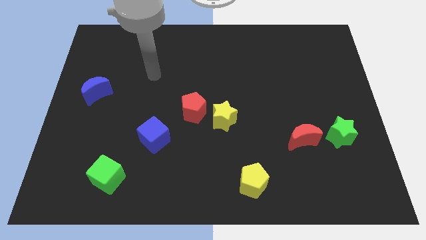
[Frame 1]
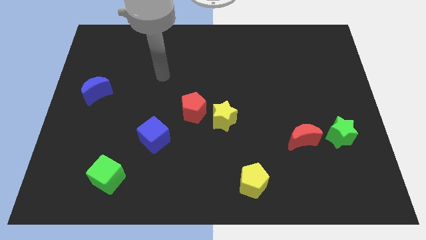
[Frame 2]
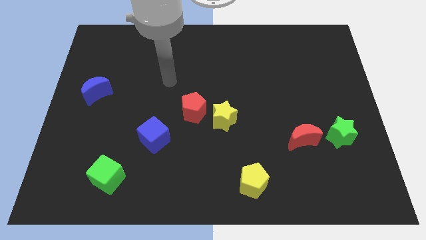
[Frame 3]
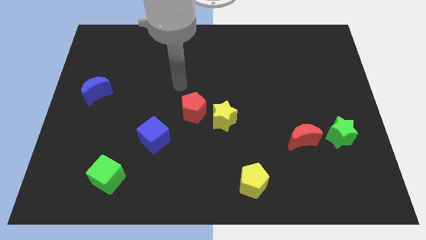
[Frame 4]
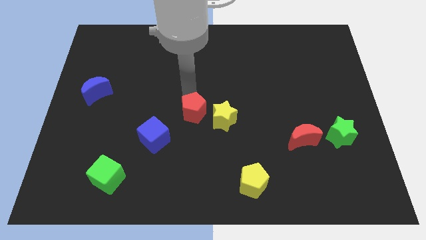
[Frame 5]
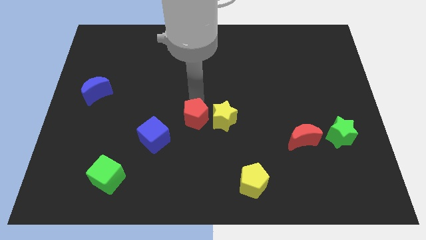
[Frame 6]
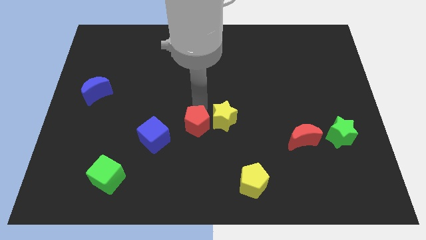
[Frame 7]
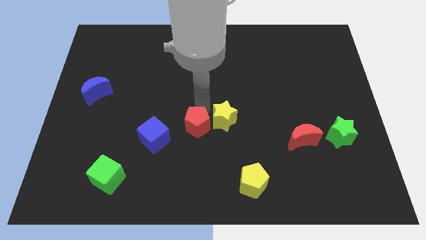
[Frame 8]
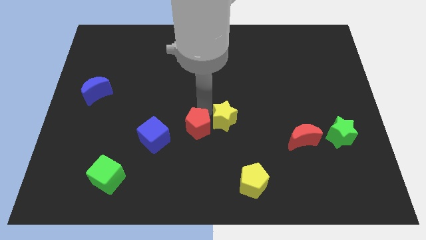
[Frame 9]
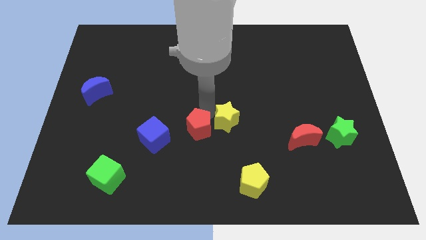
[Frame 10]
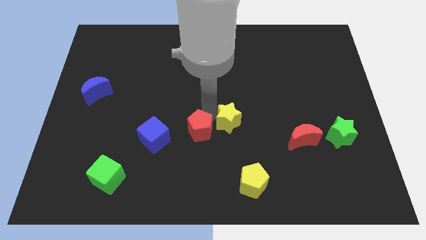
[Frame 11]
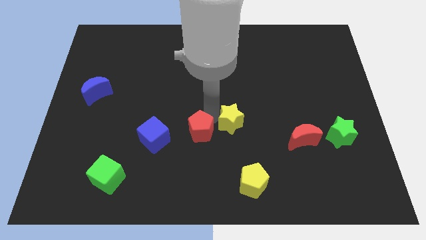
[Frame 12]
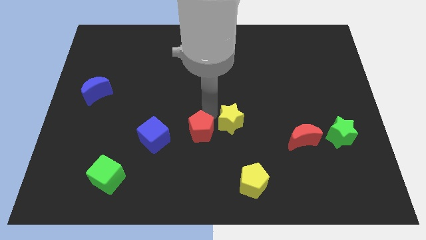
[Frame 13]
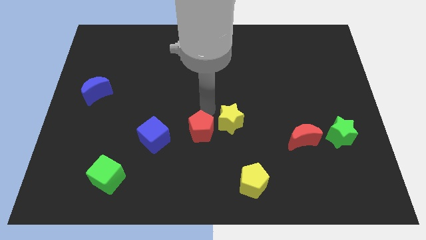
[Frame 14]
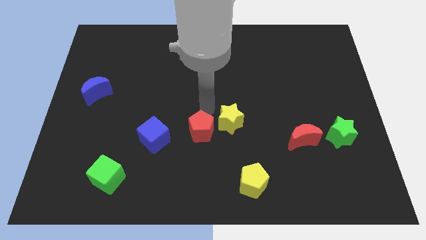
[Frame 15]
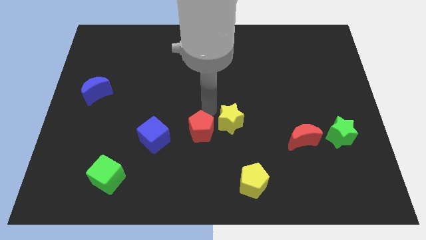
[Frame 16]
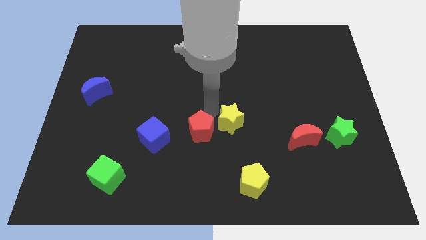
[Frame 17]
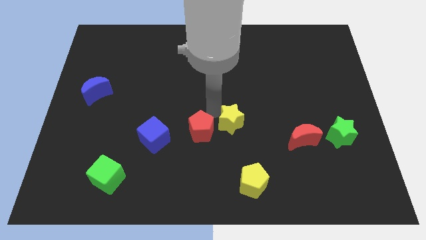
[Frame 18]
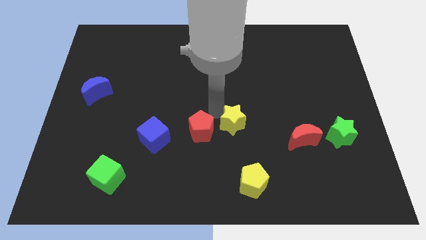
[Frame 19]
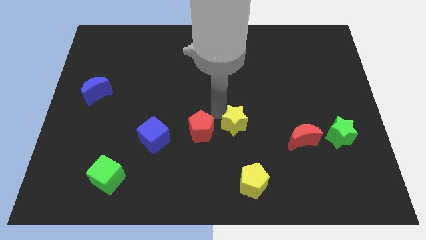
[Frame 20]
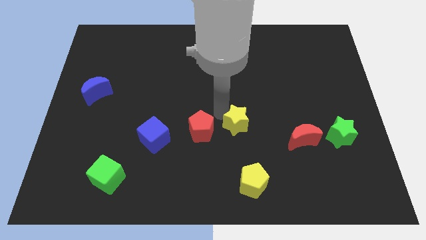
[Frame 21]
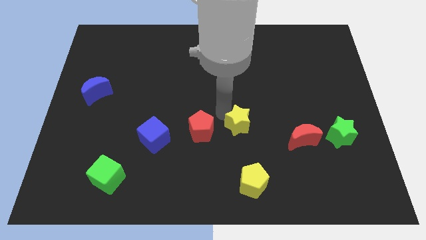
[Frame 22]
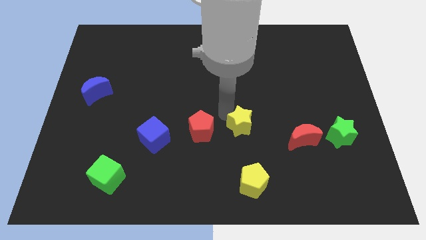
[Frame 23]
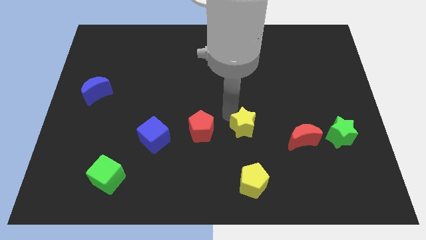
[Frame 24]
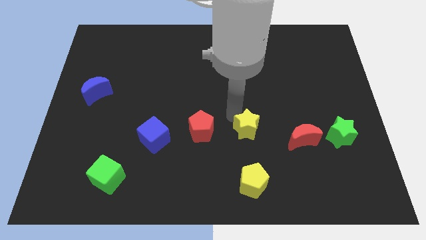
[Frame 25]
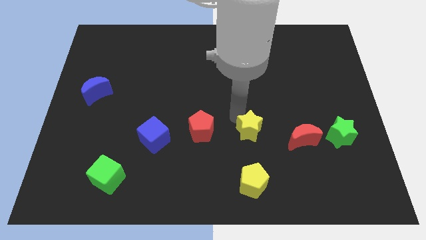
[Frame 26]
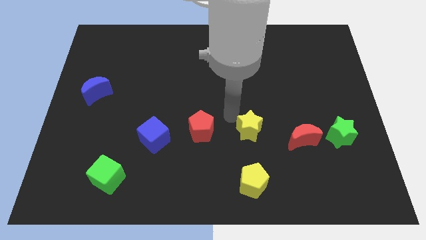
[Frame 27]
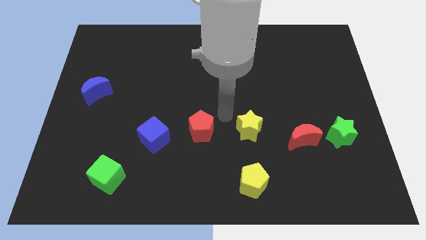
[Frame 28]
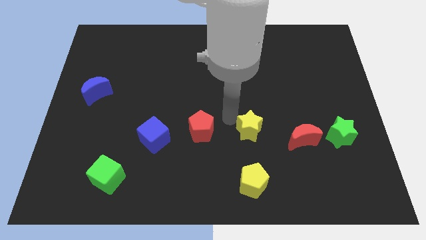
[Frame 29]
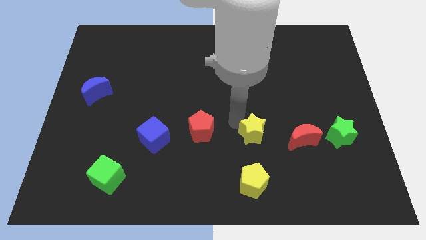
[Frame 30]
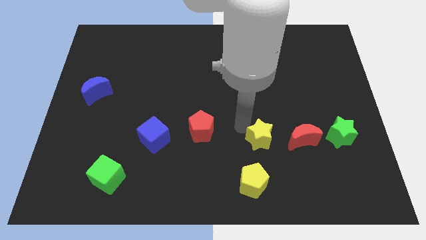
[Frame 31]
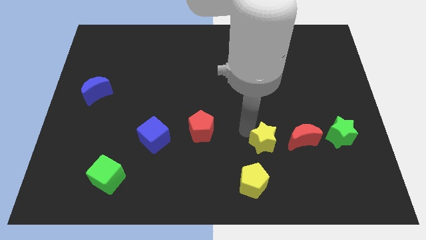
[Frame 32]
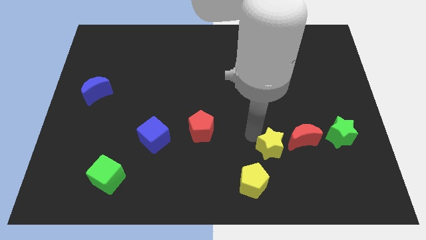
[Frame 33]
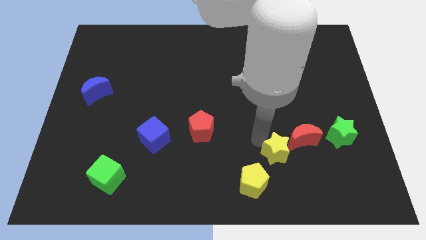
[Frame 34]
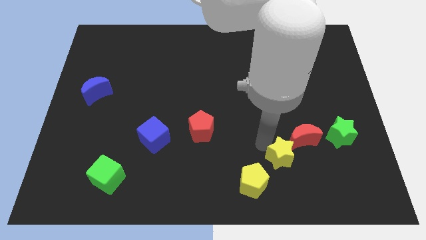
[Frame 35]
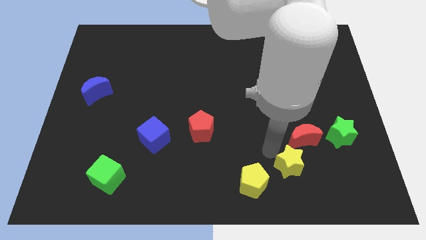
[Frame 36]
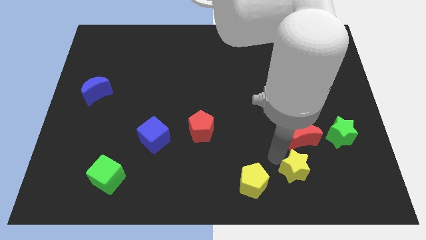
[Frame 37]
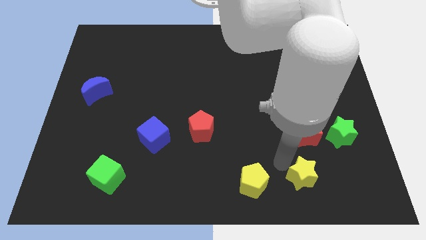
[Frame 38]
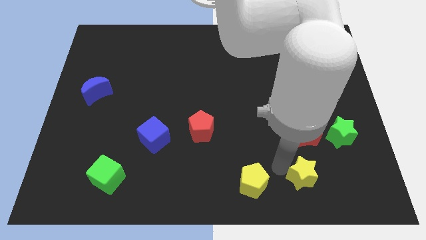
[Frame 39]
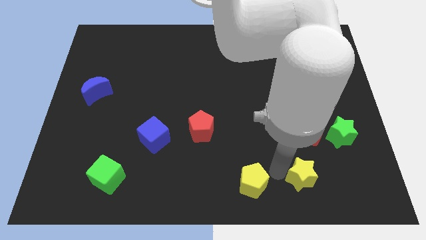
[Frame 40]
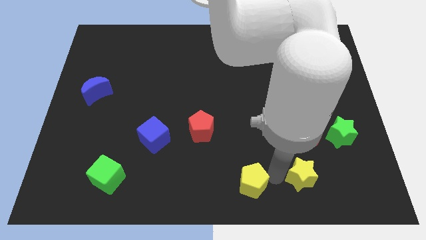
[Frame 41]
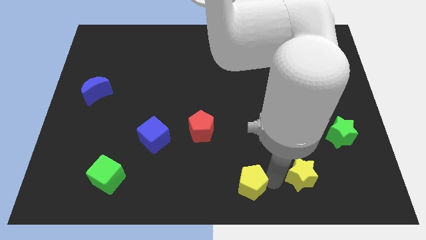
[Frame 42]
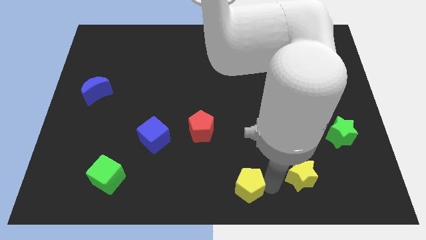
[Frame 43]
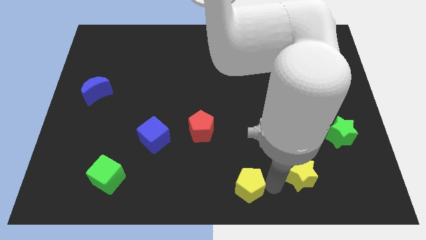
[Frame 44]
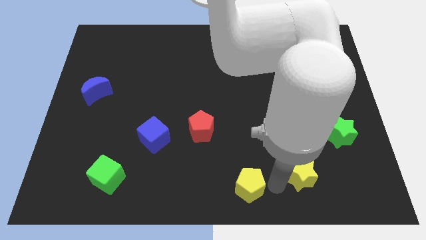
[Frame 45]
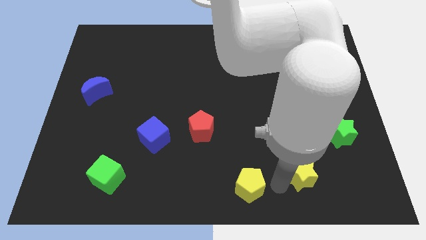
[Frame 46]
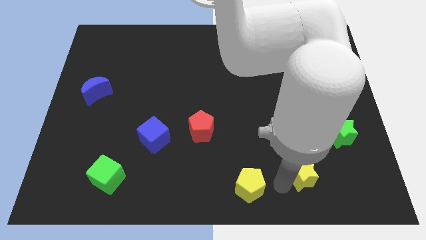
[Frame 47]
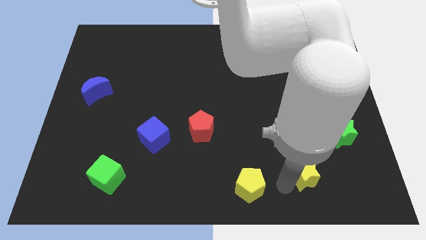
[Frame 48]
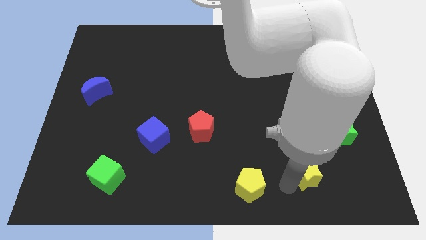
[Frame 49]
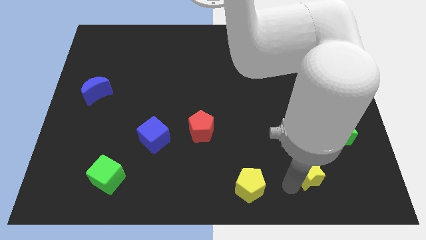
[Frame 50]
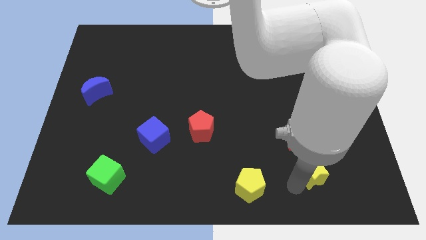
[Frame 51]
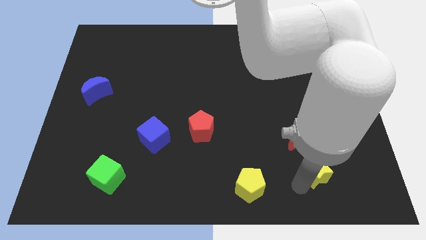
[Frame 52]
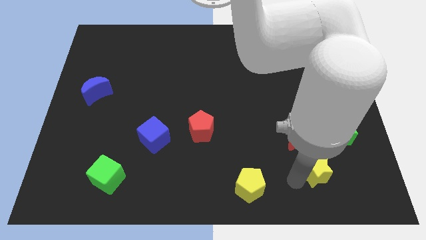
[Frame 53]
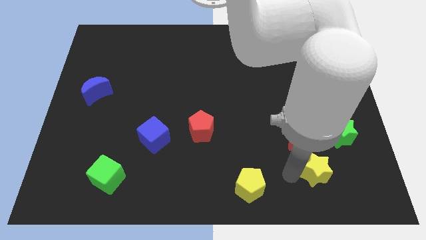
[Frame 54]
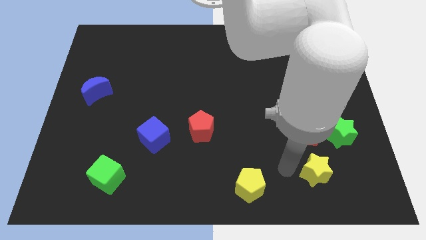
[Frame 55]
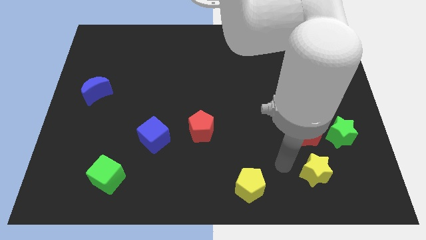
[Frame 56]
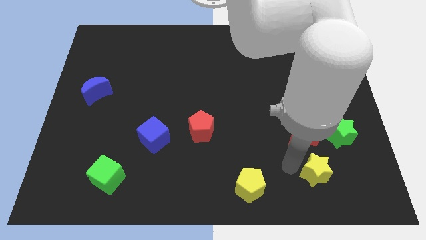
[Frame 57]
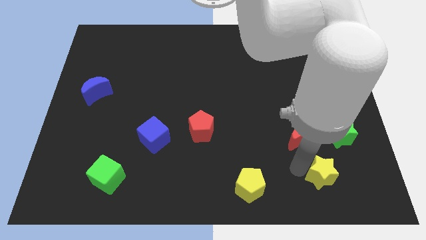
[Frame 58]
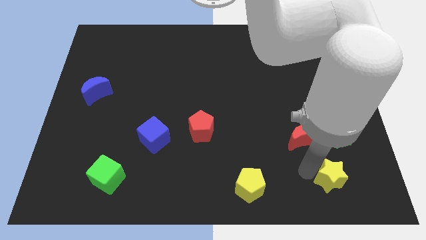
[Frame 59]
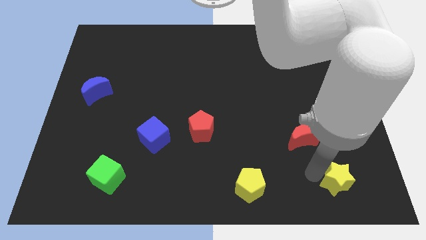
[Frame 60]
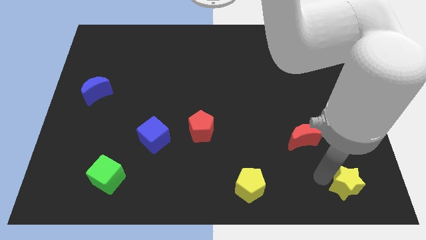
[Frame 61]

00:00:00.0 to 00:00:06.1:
slide the yellow star to the bottom right of the board
